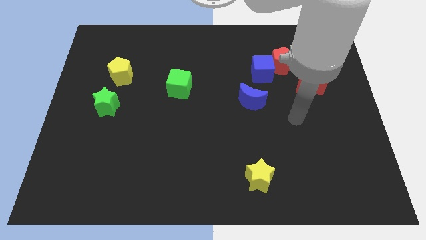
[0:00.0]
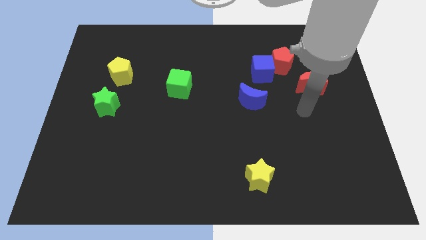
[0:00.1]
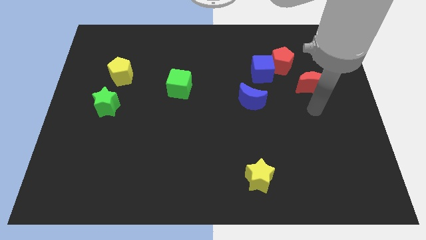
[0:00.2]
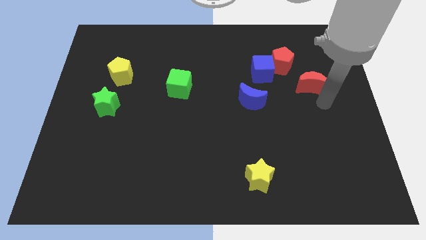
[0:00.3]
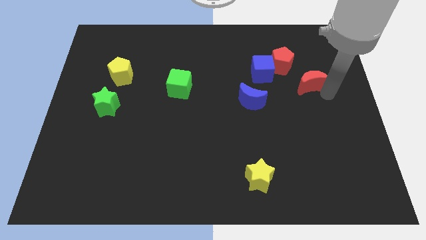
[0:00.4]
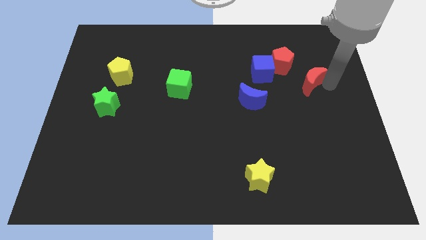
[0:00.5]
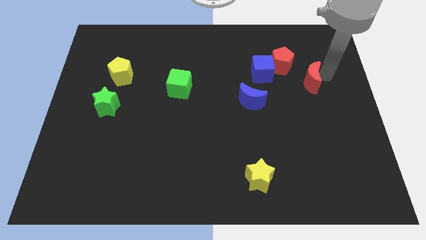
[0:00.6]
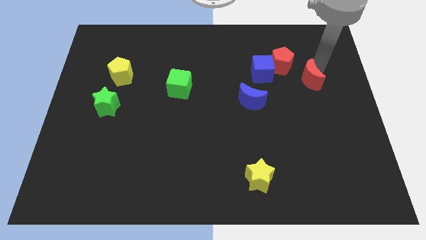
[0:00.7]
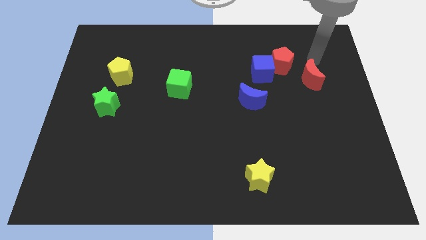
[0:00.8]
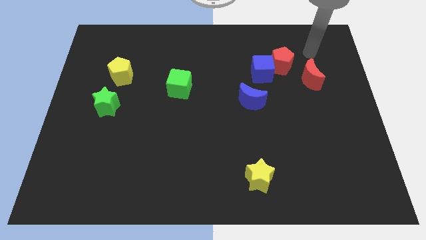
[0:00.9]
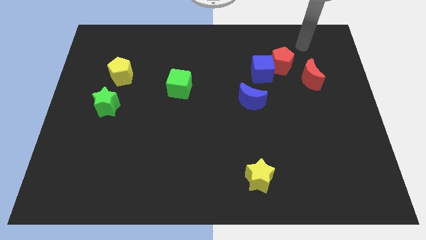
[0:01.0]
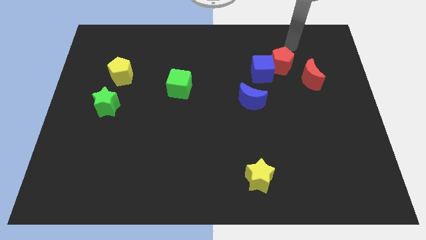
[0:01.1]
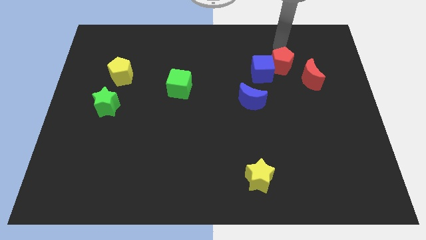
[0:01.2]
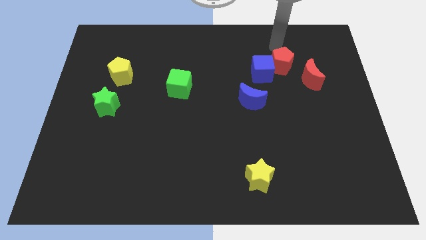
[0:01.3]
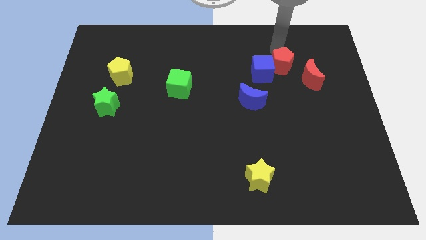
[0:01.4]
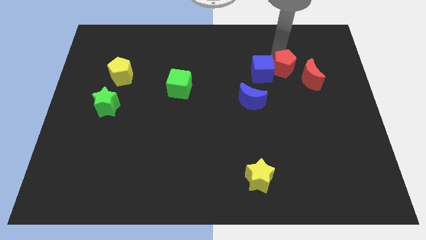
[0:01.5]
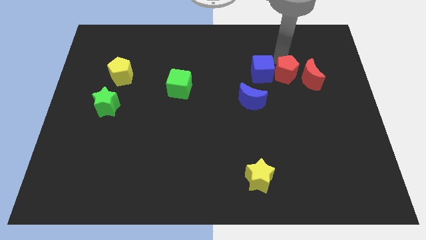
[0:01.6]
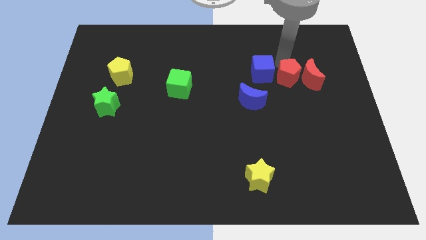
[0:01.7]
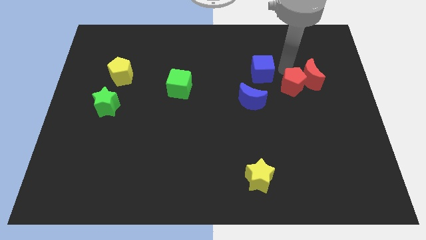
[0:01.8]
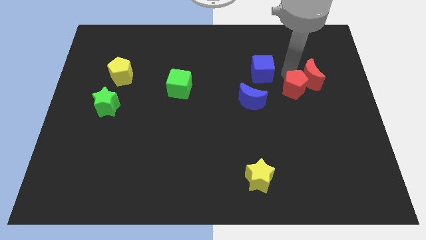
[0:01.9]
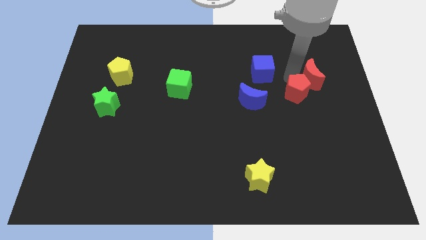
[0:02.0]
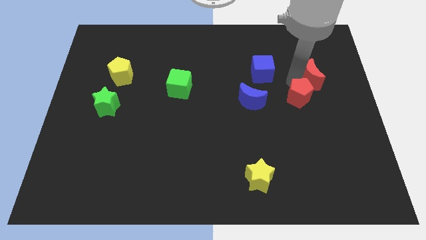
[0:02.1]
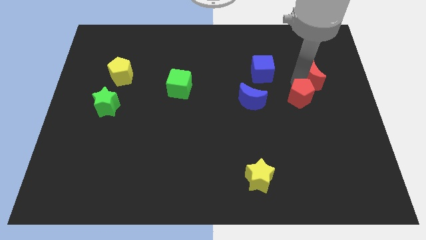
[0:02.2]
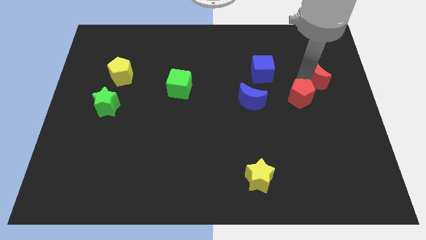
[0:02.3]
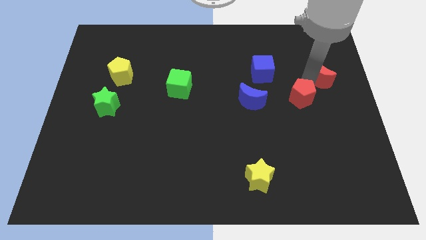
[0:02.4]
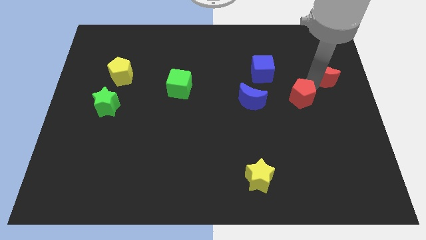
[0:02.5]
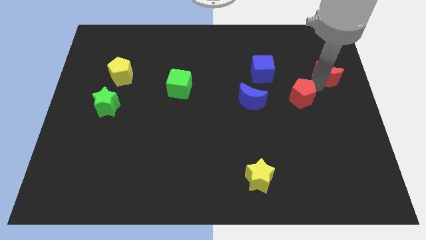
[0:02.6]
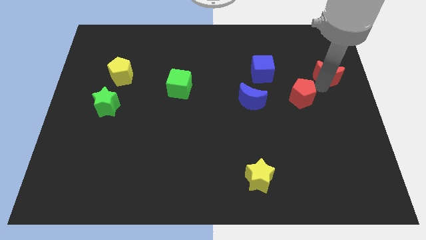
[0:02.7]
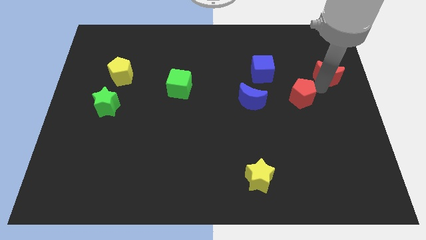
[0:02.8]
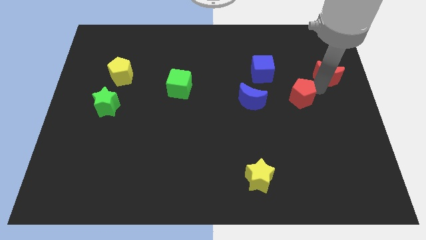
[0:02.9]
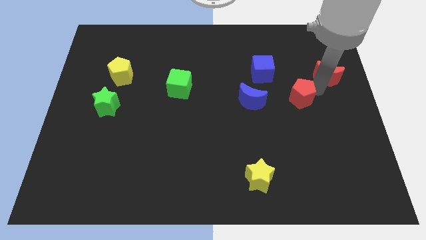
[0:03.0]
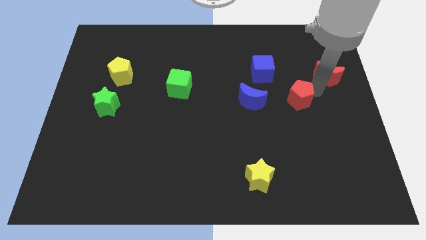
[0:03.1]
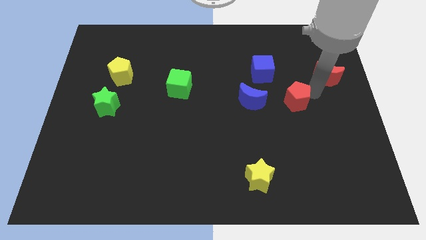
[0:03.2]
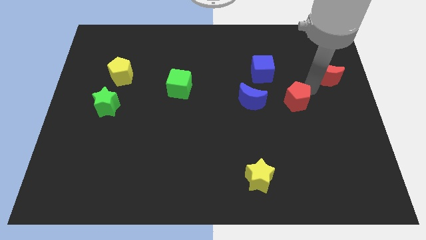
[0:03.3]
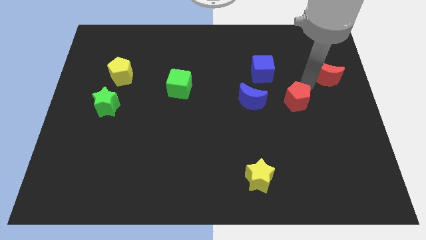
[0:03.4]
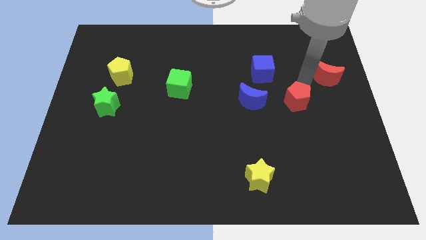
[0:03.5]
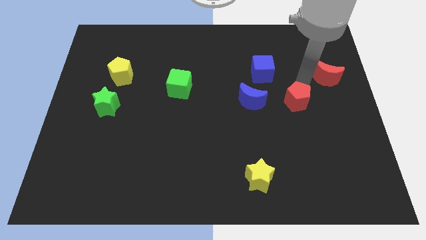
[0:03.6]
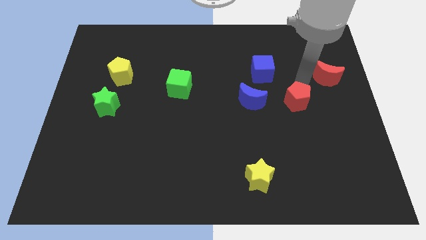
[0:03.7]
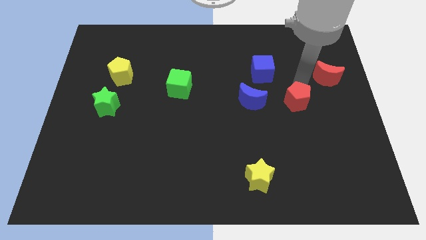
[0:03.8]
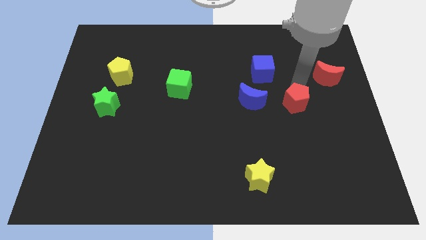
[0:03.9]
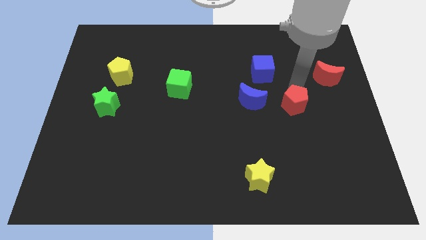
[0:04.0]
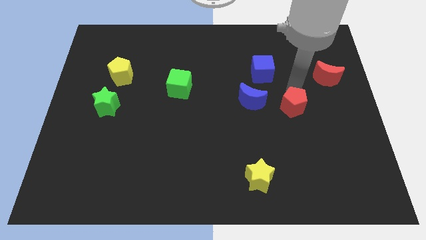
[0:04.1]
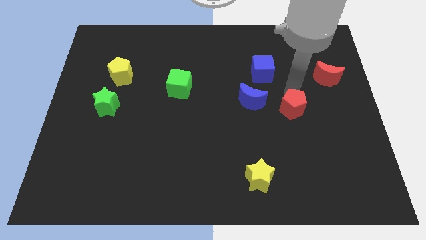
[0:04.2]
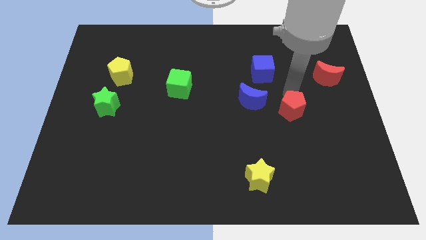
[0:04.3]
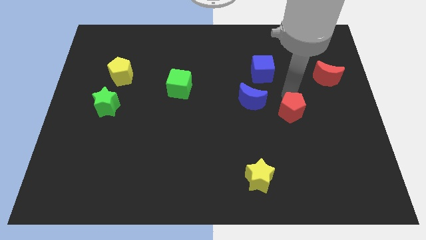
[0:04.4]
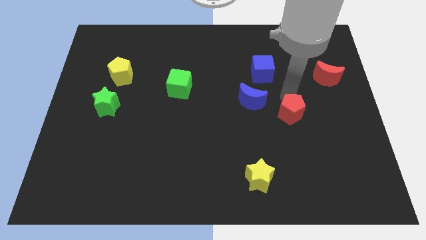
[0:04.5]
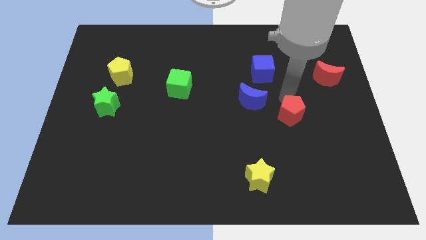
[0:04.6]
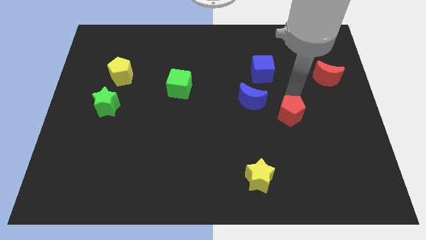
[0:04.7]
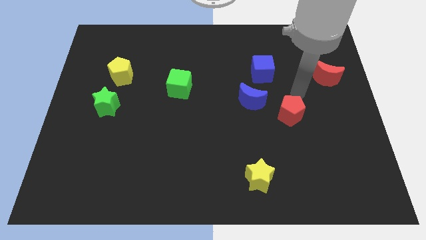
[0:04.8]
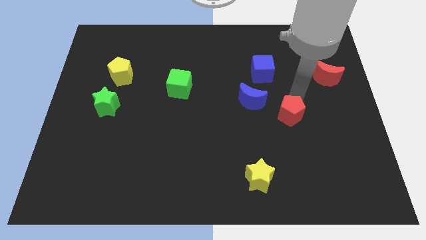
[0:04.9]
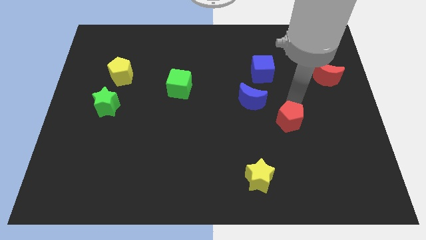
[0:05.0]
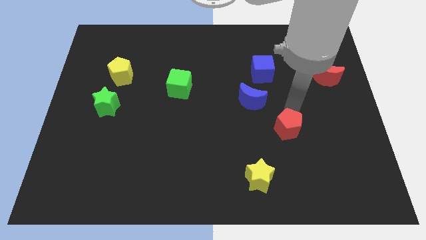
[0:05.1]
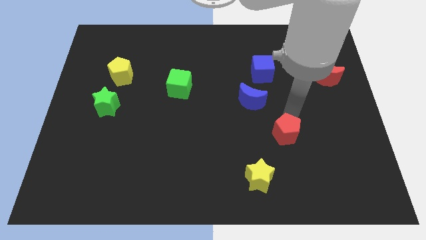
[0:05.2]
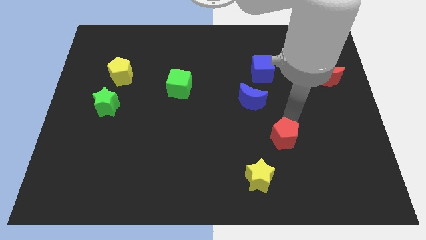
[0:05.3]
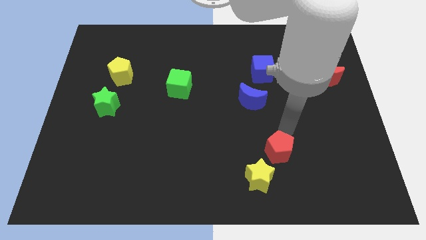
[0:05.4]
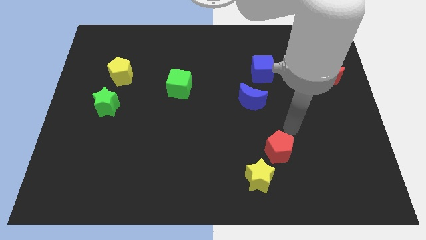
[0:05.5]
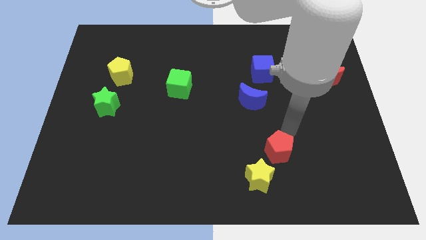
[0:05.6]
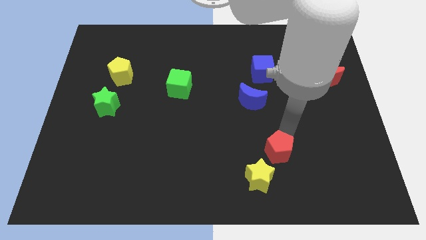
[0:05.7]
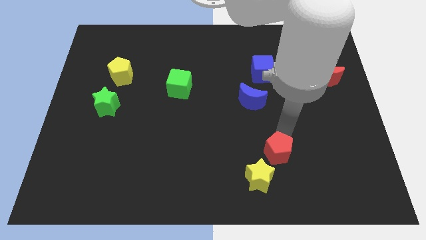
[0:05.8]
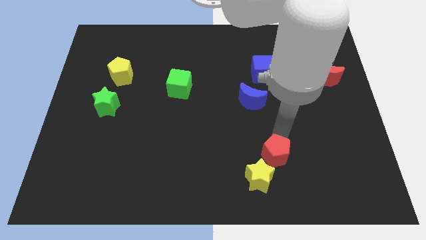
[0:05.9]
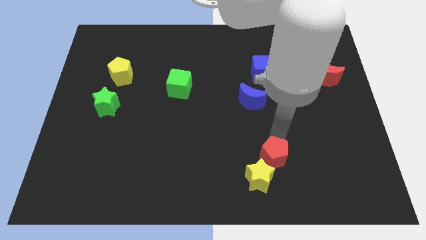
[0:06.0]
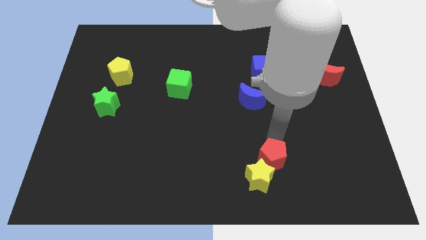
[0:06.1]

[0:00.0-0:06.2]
push the red pentagon next to the yellow star

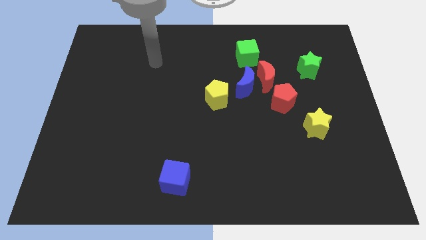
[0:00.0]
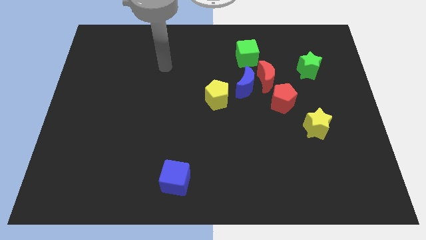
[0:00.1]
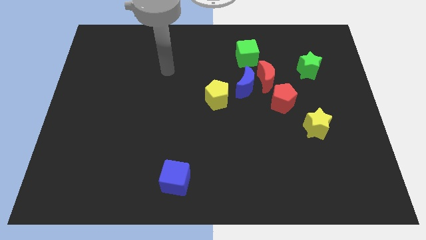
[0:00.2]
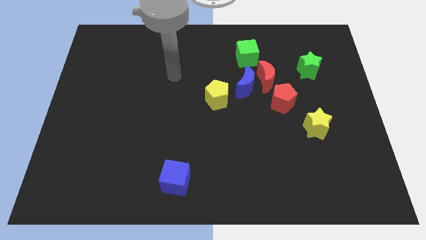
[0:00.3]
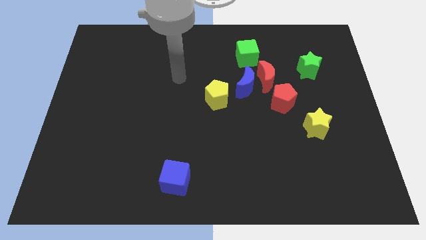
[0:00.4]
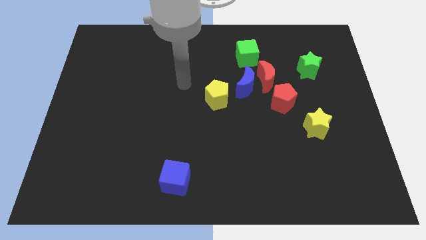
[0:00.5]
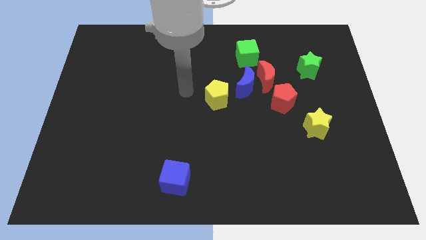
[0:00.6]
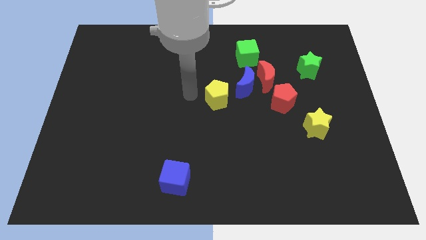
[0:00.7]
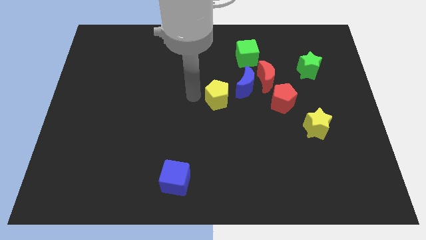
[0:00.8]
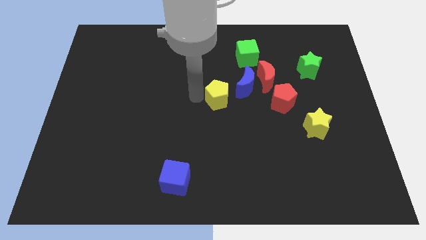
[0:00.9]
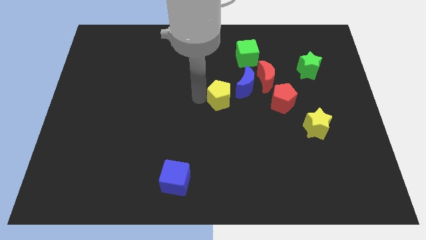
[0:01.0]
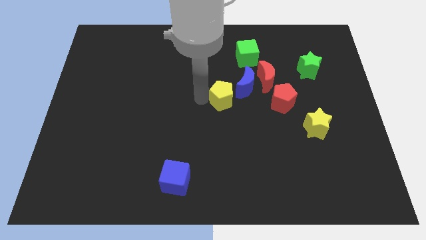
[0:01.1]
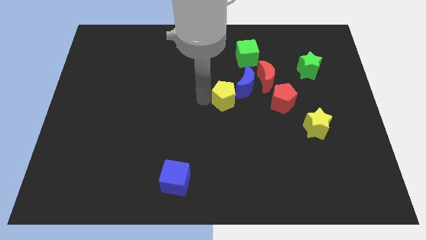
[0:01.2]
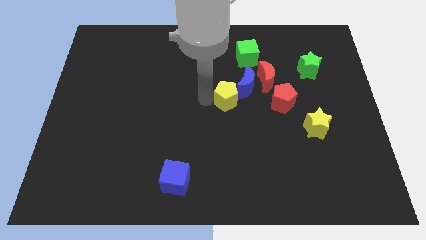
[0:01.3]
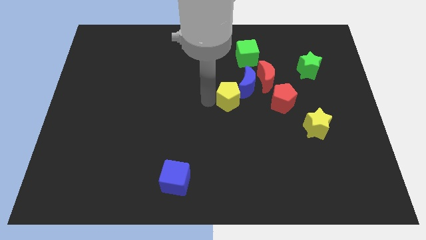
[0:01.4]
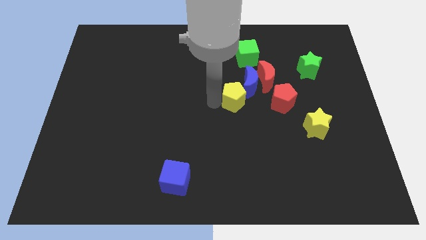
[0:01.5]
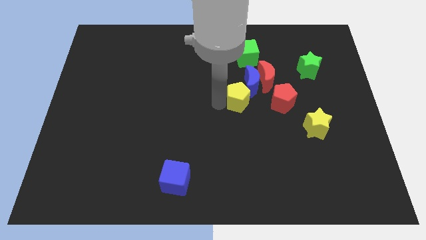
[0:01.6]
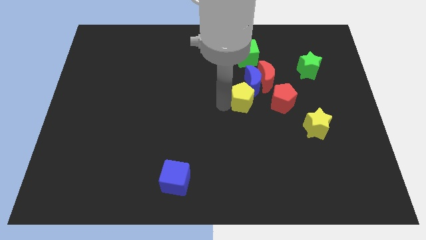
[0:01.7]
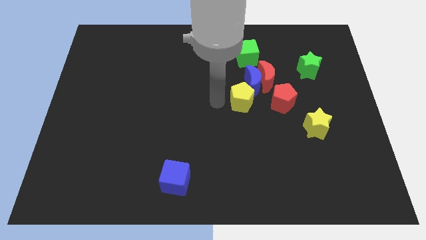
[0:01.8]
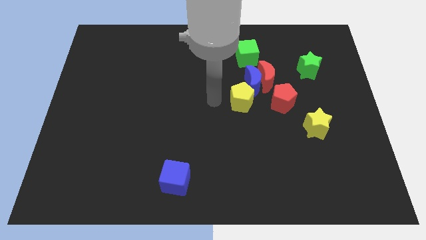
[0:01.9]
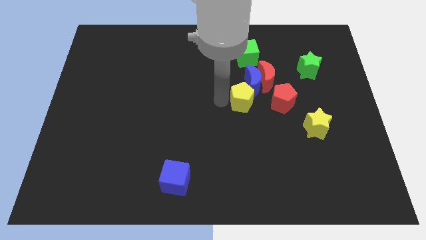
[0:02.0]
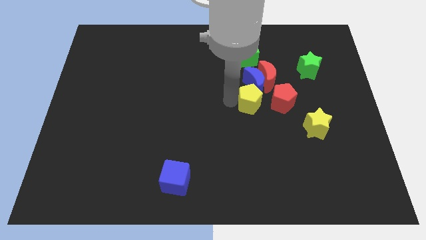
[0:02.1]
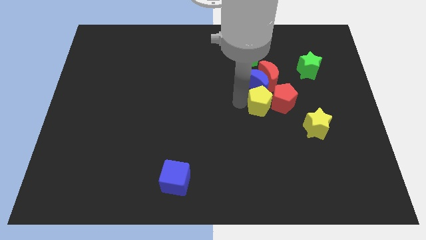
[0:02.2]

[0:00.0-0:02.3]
slide the yellow pentagon close to the red pentagon
